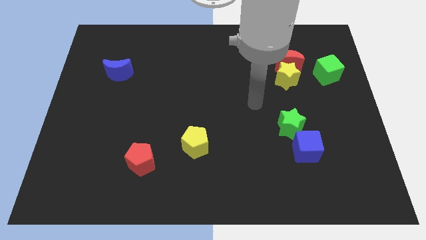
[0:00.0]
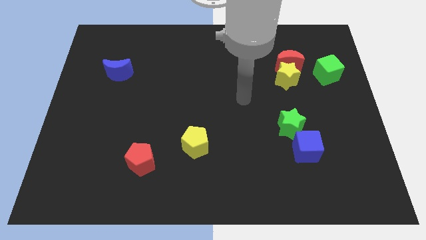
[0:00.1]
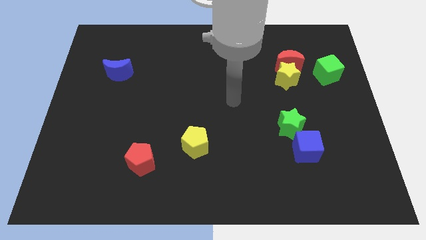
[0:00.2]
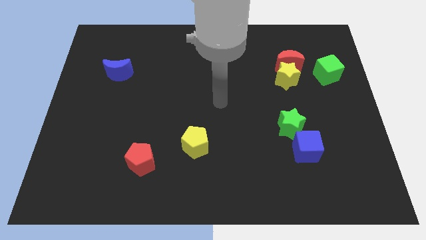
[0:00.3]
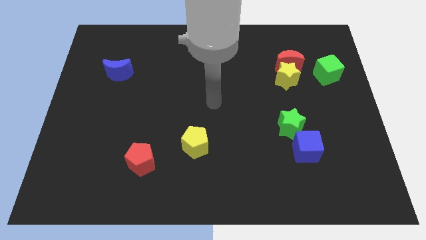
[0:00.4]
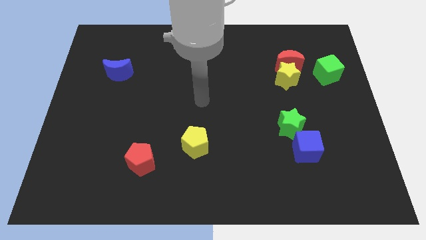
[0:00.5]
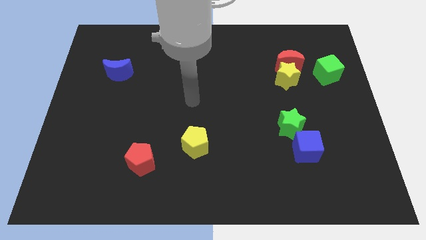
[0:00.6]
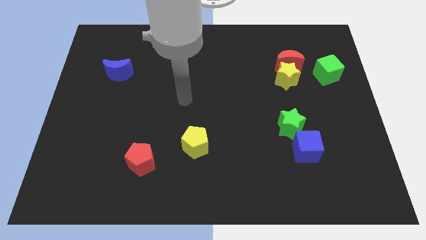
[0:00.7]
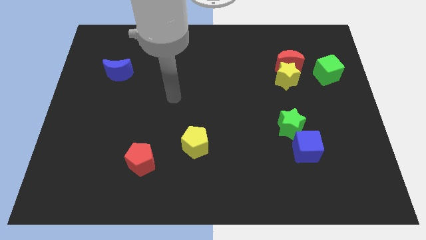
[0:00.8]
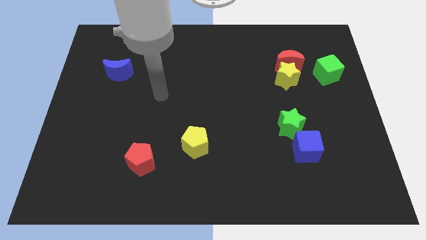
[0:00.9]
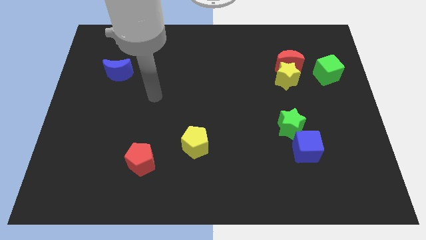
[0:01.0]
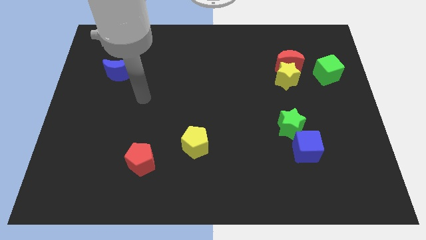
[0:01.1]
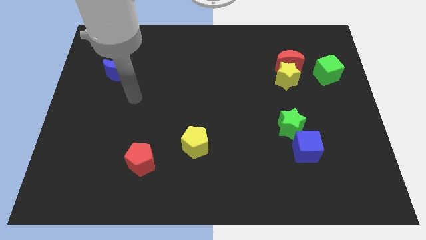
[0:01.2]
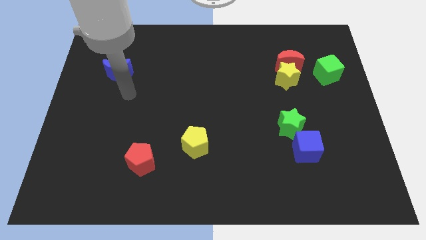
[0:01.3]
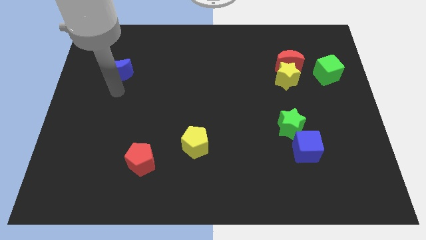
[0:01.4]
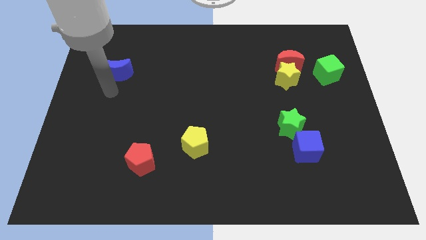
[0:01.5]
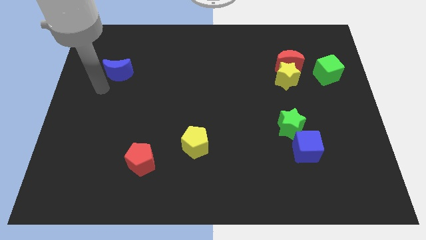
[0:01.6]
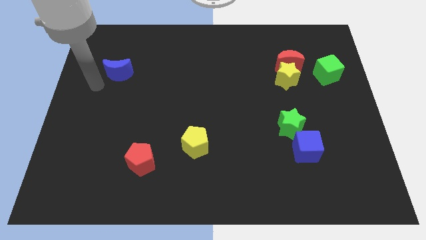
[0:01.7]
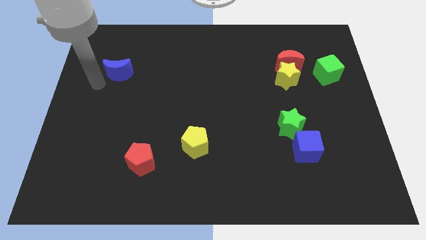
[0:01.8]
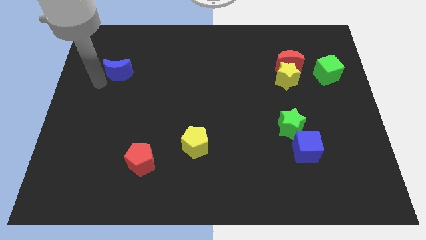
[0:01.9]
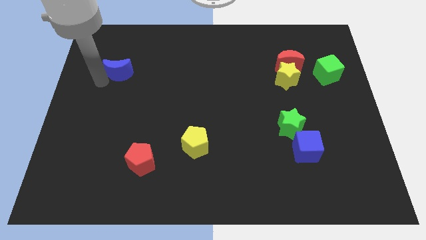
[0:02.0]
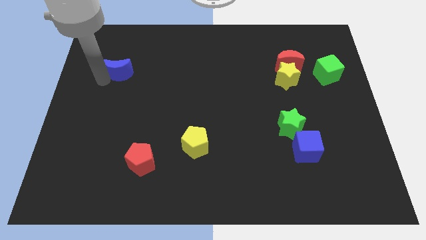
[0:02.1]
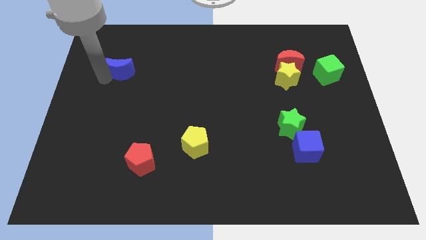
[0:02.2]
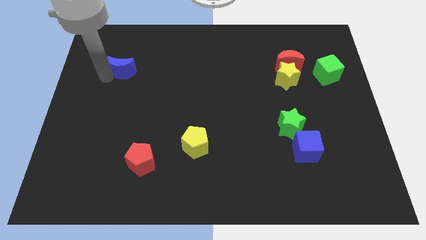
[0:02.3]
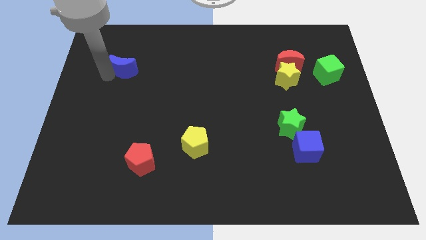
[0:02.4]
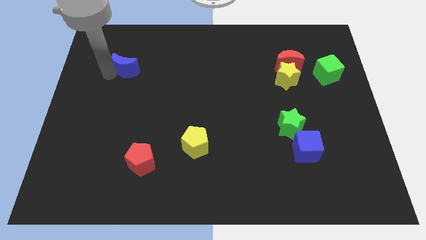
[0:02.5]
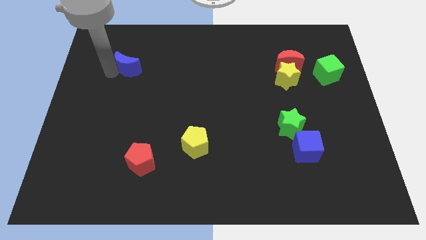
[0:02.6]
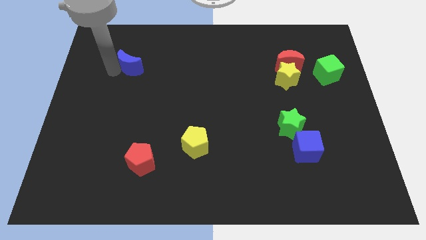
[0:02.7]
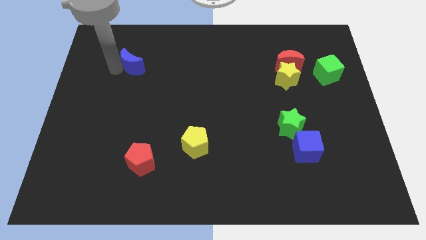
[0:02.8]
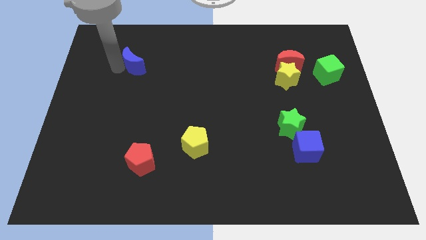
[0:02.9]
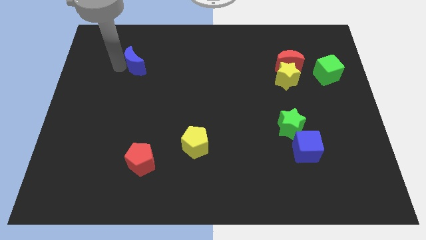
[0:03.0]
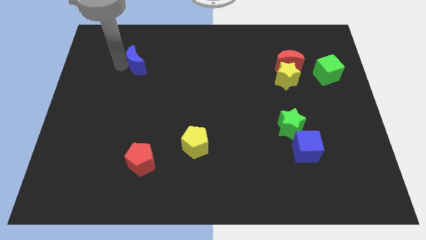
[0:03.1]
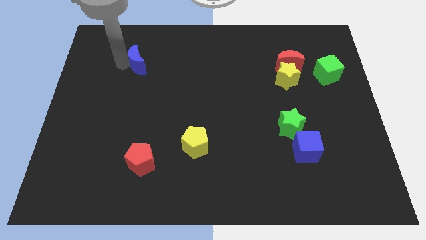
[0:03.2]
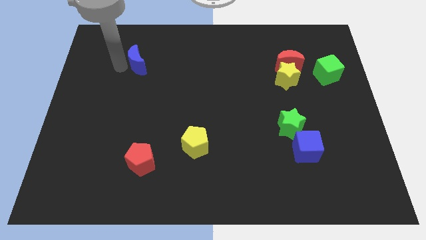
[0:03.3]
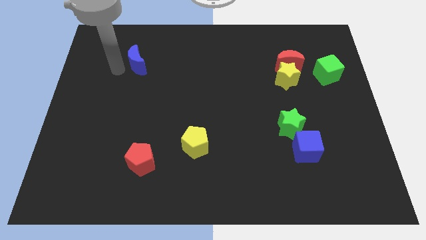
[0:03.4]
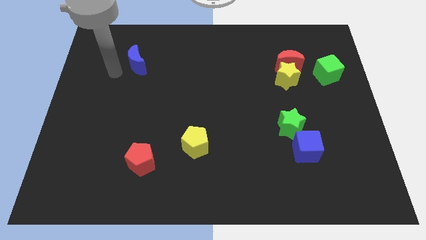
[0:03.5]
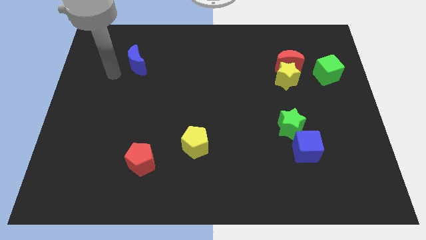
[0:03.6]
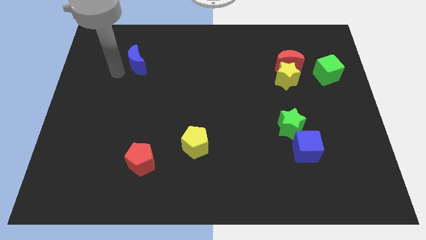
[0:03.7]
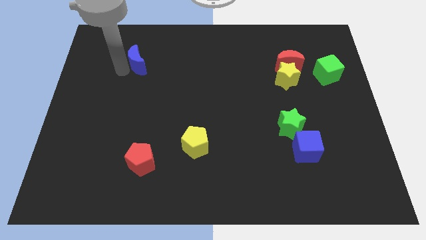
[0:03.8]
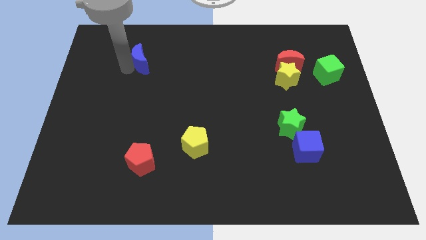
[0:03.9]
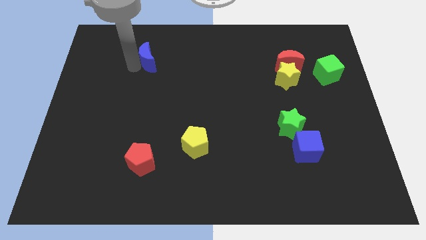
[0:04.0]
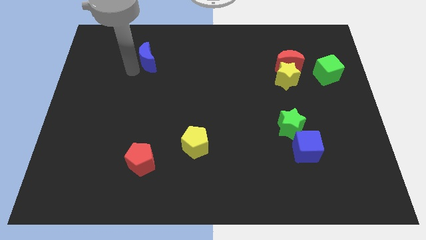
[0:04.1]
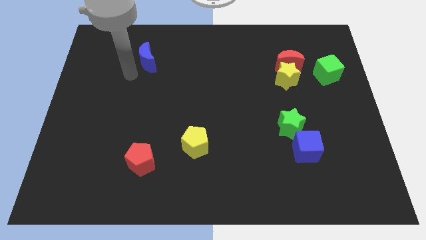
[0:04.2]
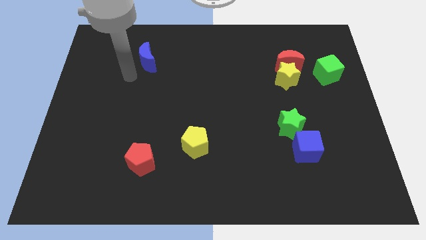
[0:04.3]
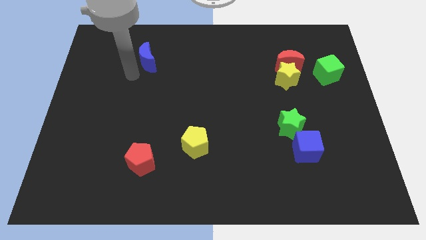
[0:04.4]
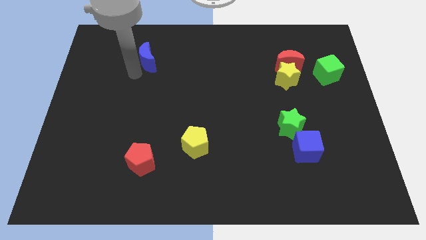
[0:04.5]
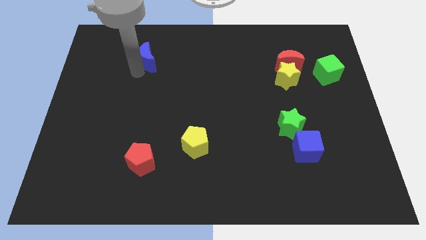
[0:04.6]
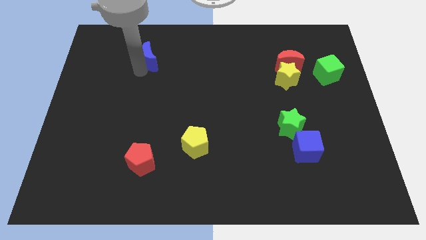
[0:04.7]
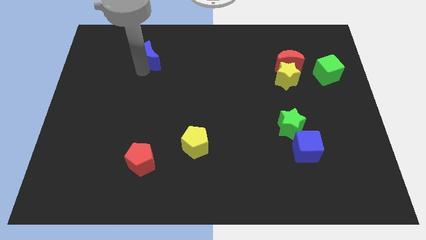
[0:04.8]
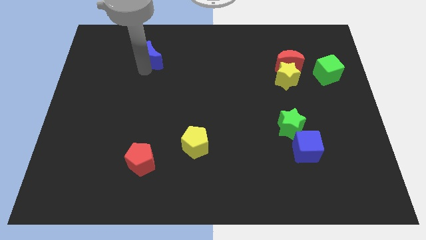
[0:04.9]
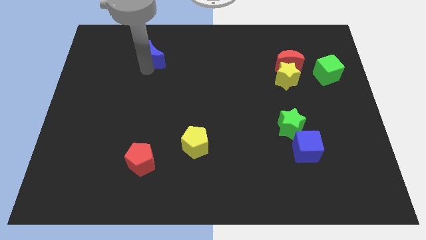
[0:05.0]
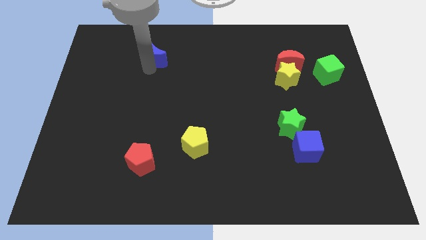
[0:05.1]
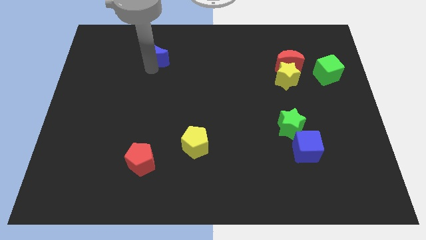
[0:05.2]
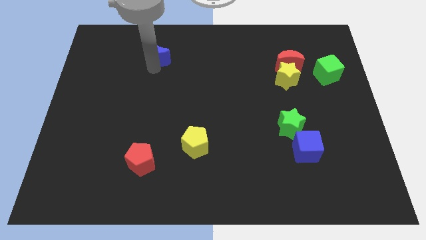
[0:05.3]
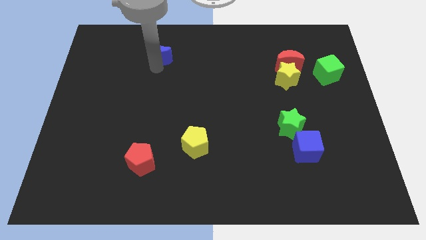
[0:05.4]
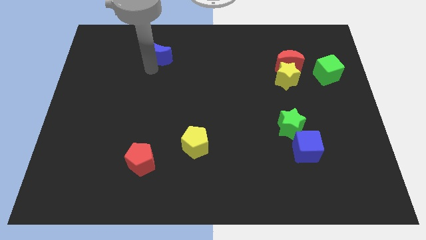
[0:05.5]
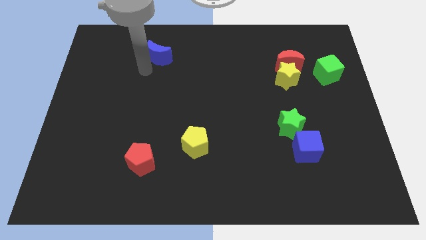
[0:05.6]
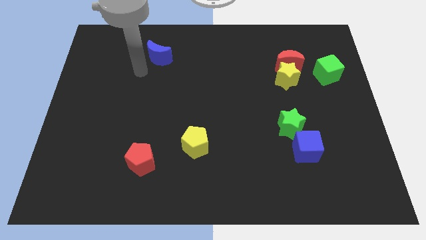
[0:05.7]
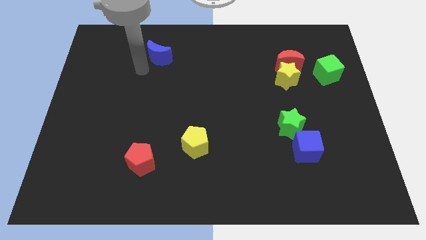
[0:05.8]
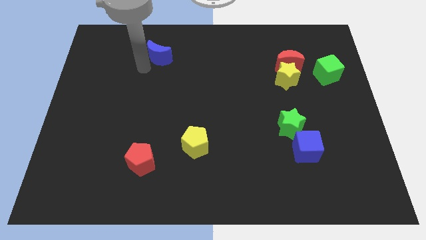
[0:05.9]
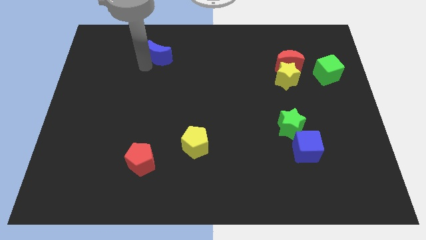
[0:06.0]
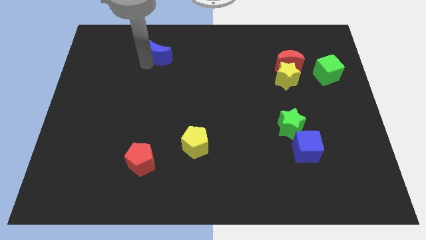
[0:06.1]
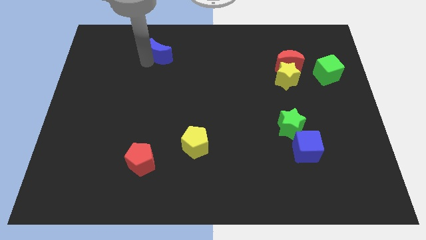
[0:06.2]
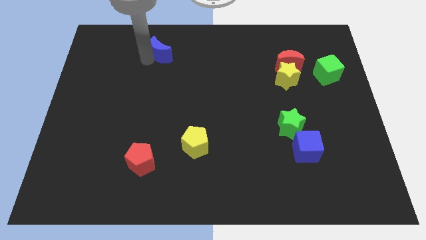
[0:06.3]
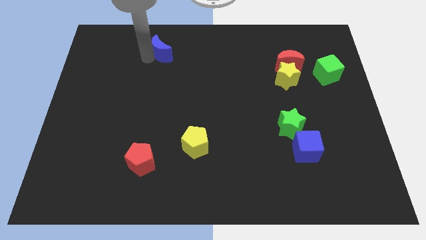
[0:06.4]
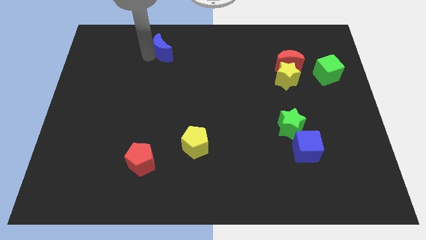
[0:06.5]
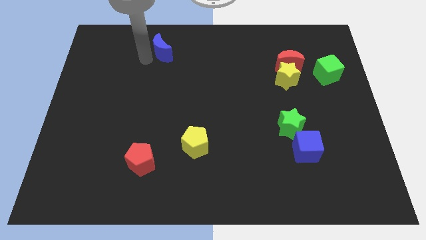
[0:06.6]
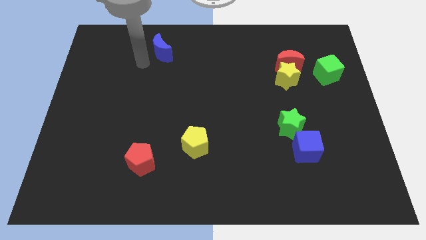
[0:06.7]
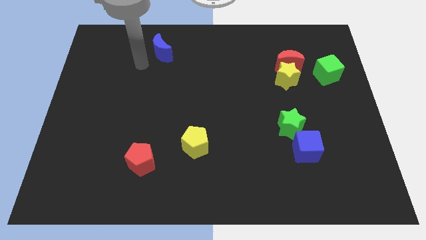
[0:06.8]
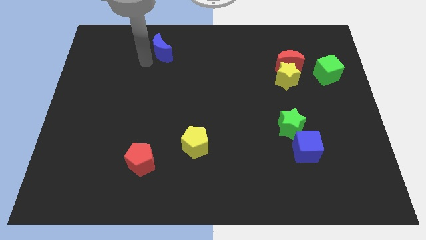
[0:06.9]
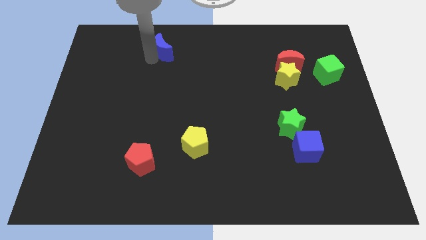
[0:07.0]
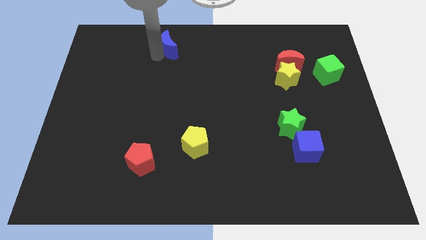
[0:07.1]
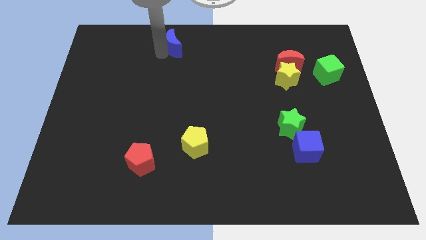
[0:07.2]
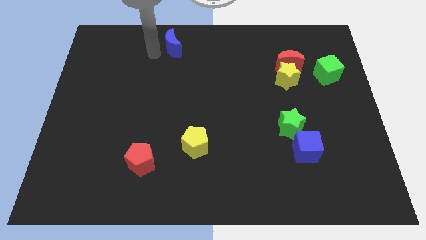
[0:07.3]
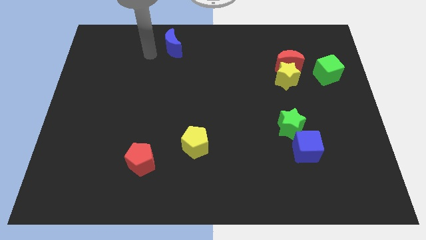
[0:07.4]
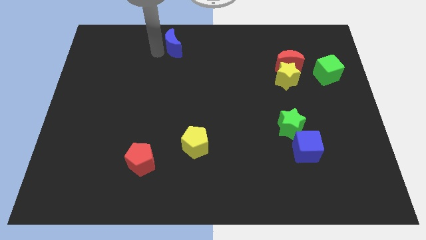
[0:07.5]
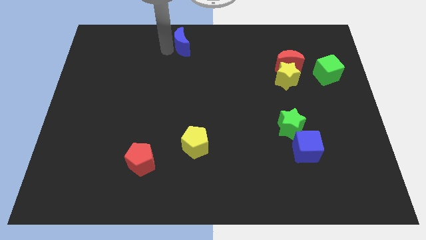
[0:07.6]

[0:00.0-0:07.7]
push the blue moon to the top
